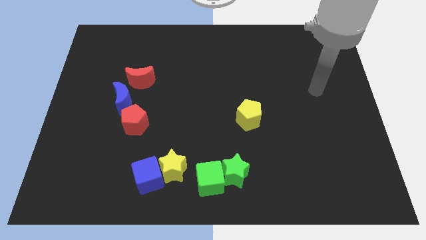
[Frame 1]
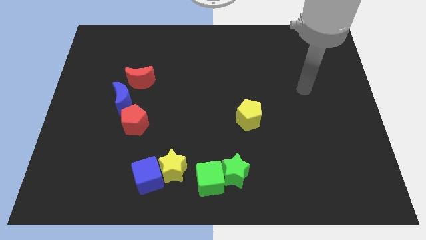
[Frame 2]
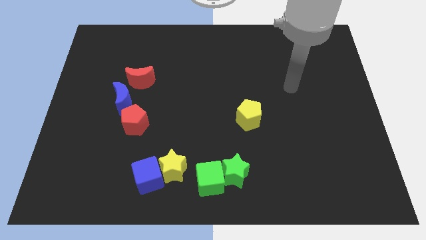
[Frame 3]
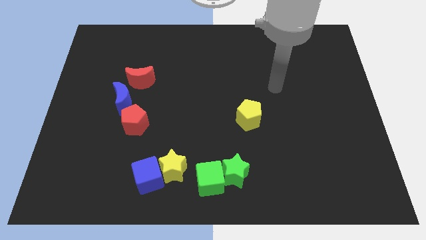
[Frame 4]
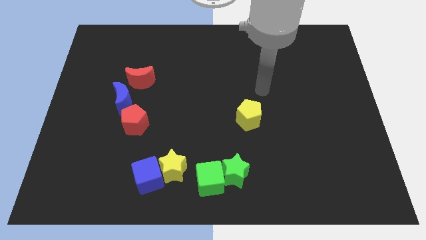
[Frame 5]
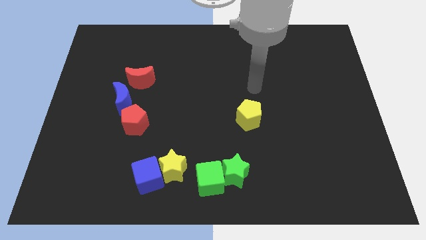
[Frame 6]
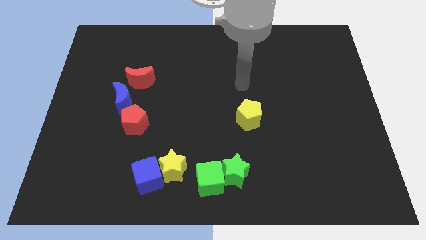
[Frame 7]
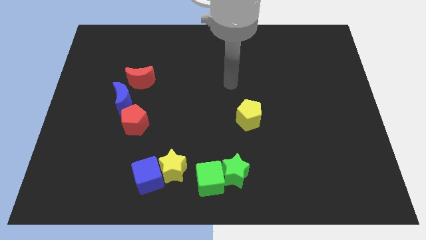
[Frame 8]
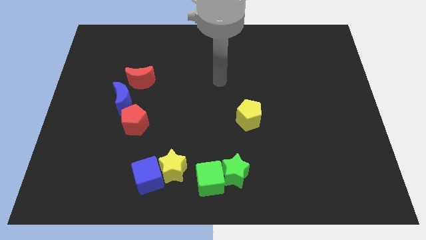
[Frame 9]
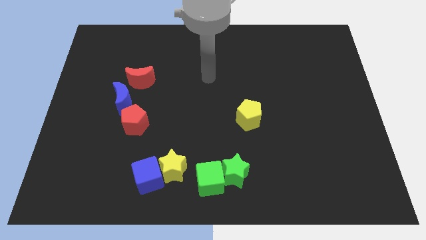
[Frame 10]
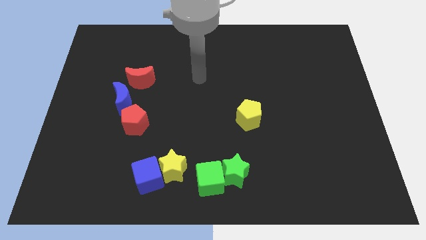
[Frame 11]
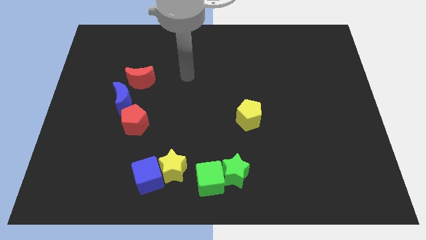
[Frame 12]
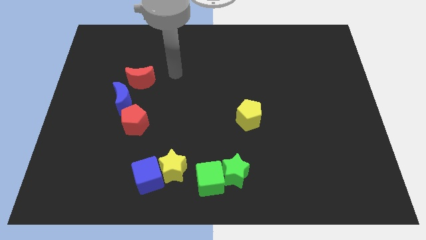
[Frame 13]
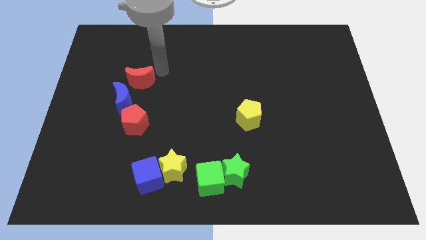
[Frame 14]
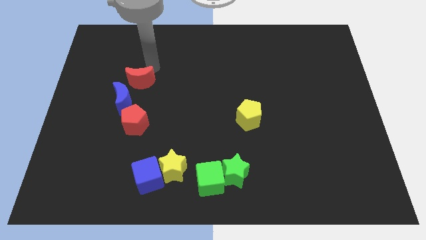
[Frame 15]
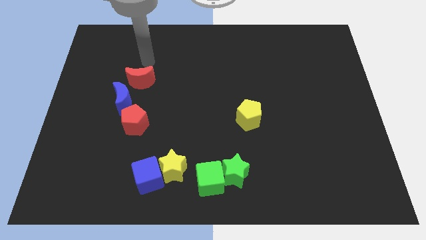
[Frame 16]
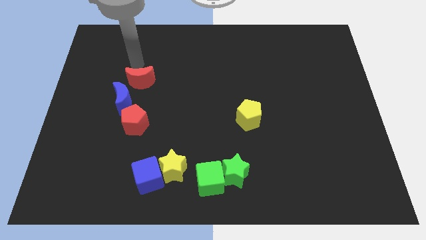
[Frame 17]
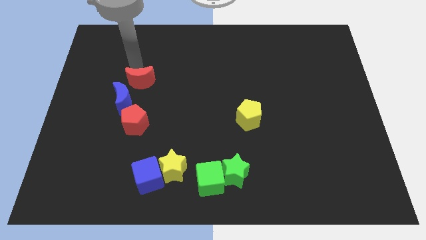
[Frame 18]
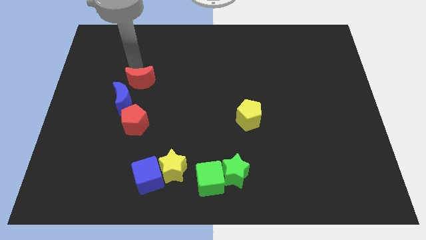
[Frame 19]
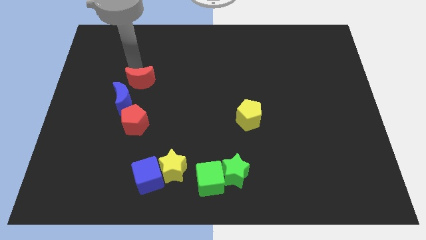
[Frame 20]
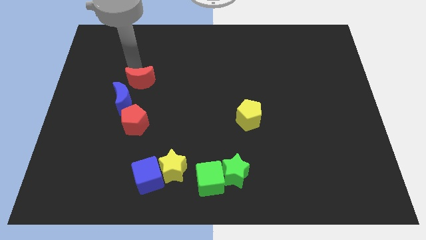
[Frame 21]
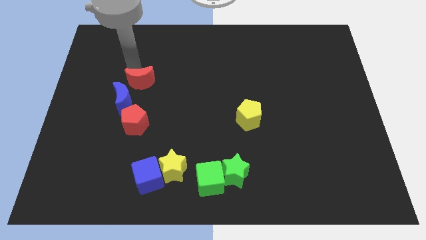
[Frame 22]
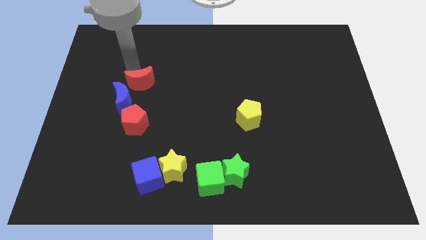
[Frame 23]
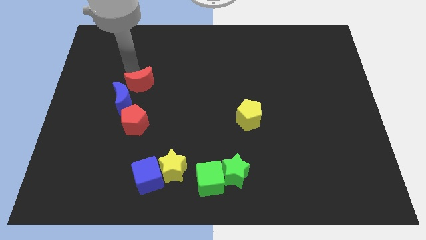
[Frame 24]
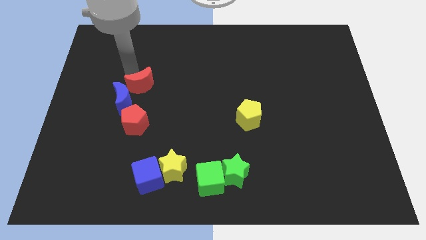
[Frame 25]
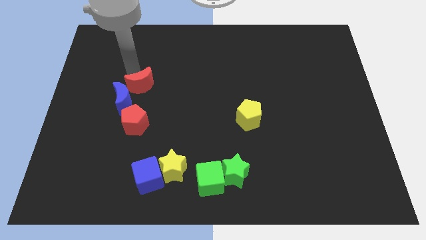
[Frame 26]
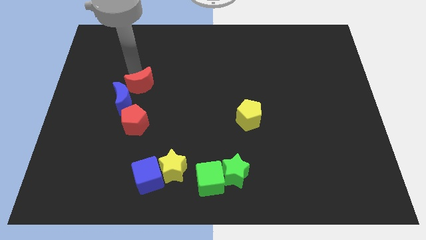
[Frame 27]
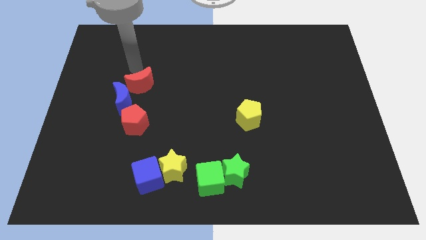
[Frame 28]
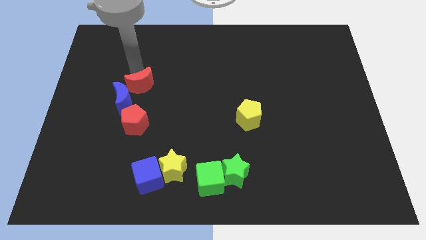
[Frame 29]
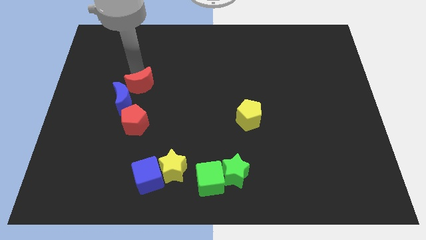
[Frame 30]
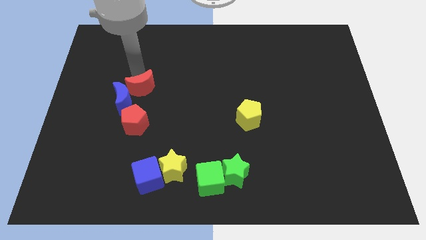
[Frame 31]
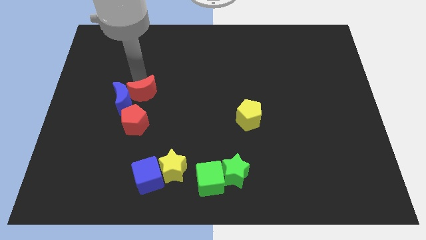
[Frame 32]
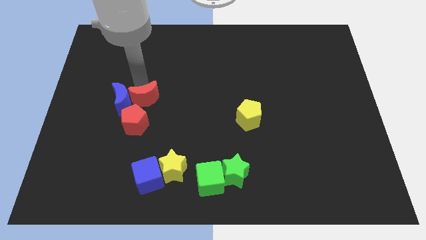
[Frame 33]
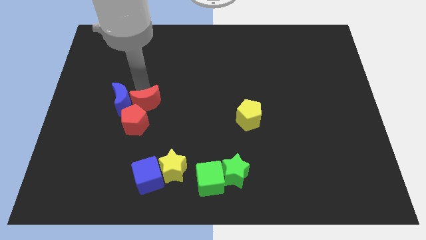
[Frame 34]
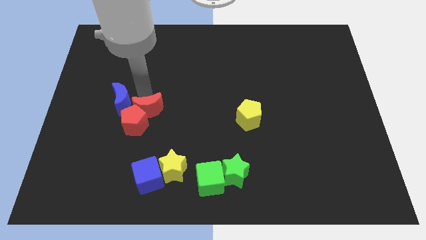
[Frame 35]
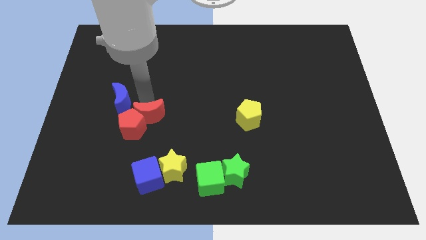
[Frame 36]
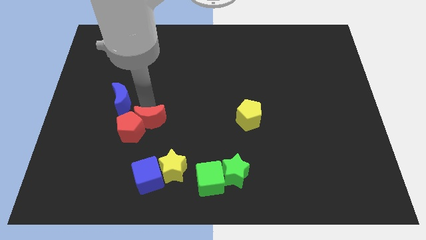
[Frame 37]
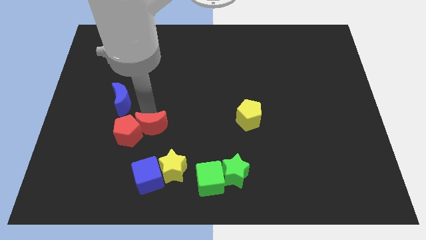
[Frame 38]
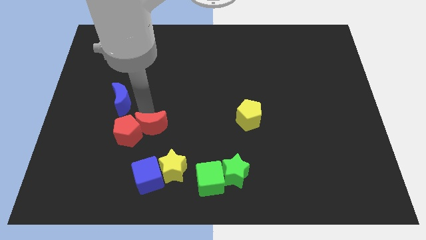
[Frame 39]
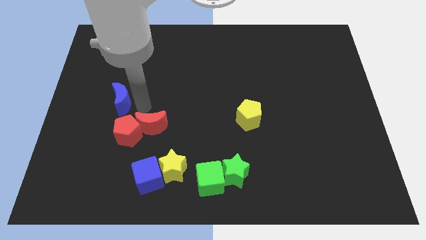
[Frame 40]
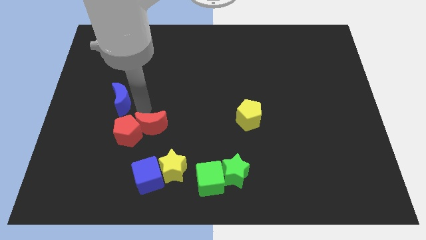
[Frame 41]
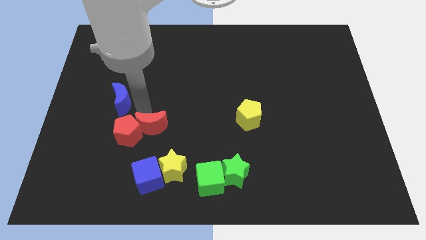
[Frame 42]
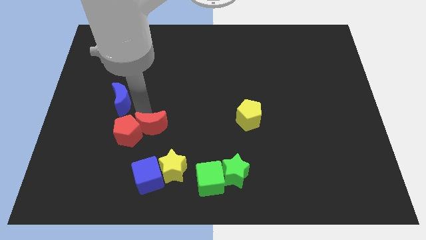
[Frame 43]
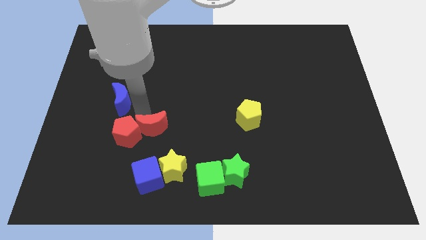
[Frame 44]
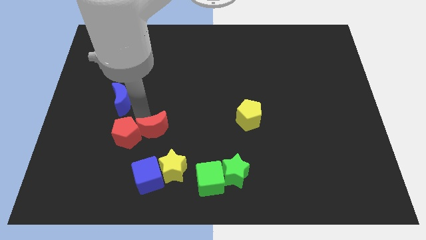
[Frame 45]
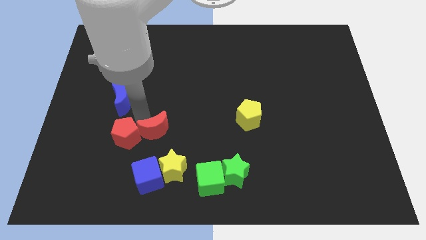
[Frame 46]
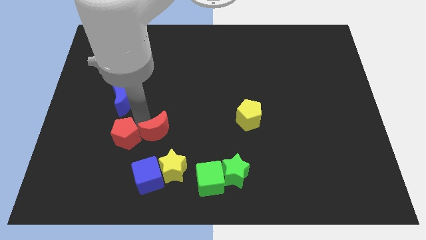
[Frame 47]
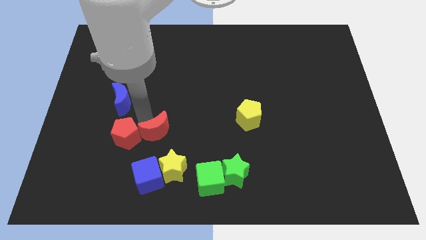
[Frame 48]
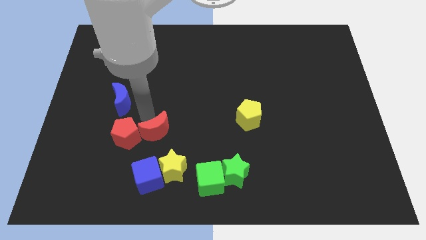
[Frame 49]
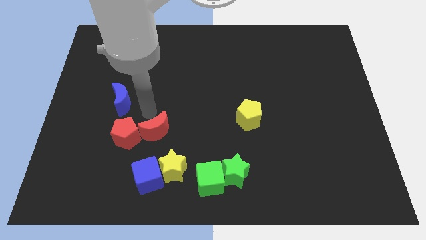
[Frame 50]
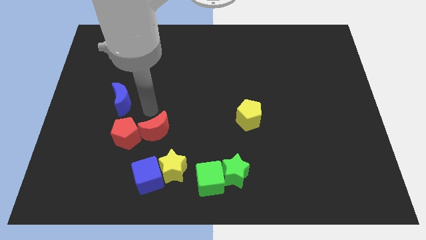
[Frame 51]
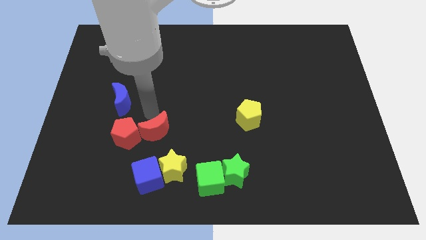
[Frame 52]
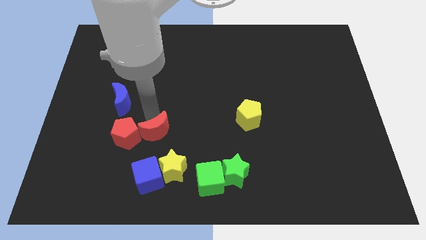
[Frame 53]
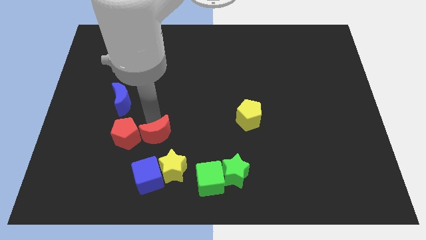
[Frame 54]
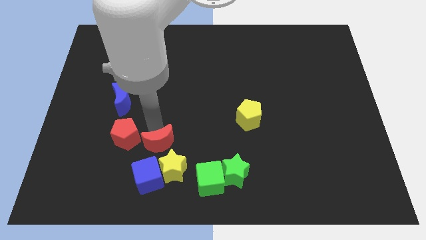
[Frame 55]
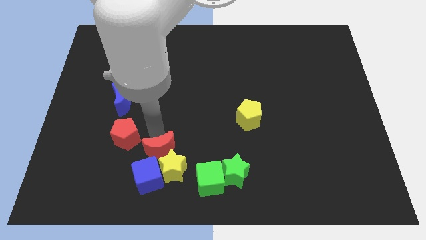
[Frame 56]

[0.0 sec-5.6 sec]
put the red moon next to the yellow star
